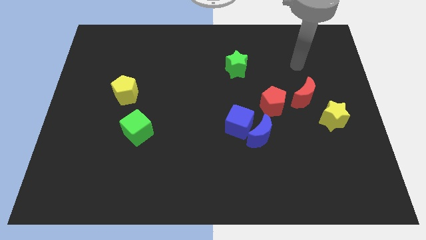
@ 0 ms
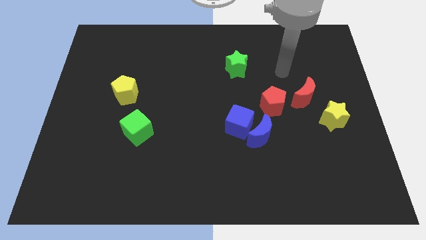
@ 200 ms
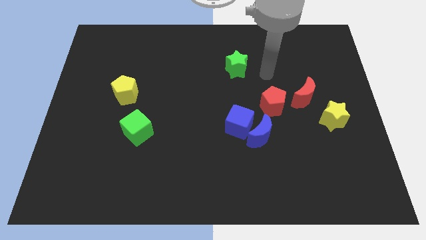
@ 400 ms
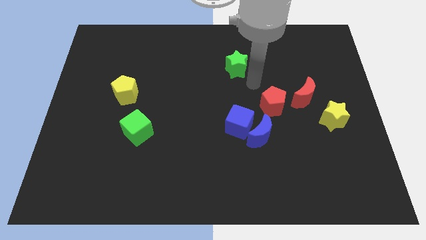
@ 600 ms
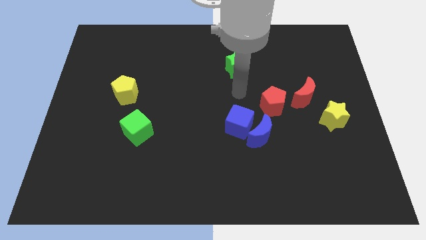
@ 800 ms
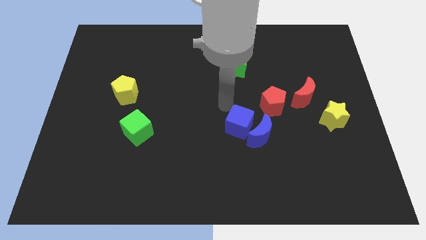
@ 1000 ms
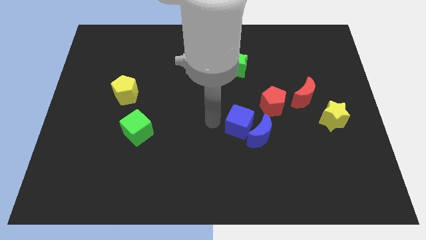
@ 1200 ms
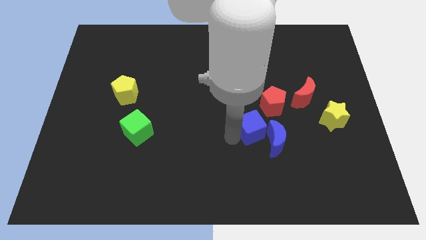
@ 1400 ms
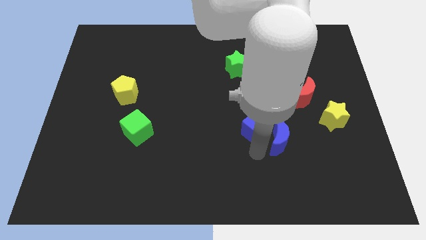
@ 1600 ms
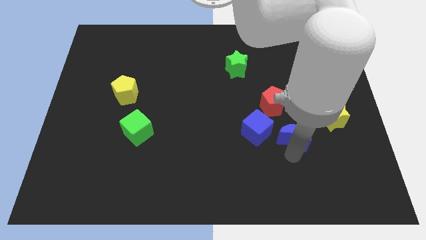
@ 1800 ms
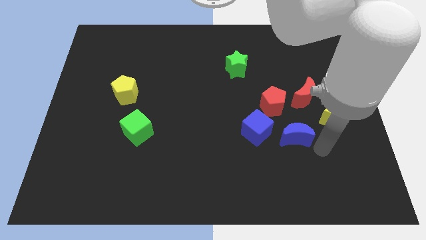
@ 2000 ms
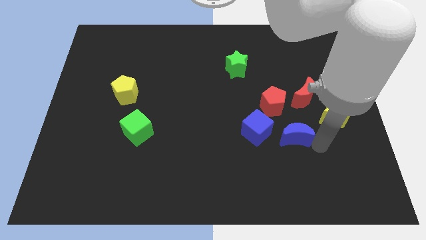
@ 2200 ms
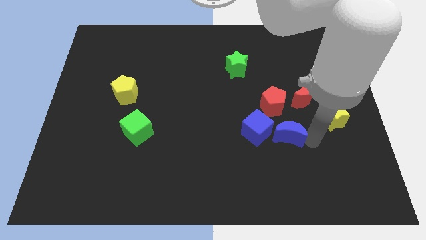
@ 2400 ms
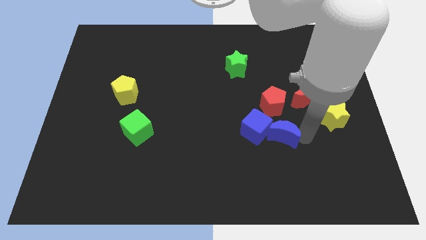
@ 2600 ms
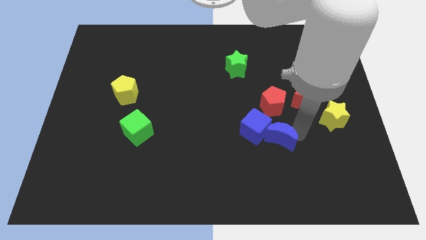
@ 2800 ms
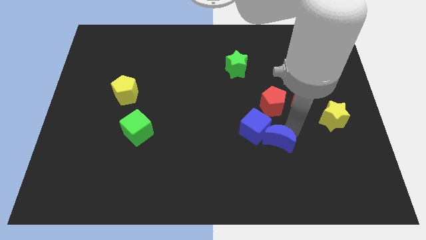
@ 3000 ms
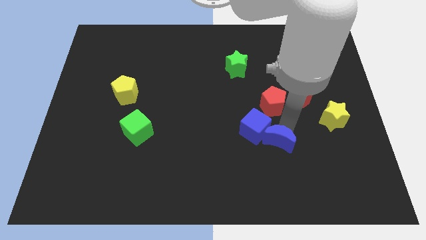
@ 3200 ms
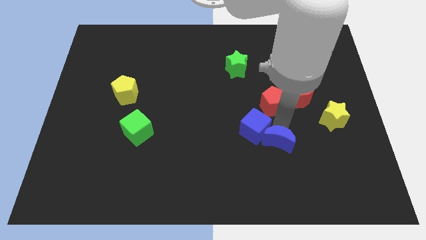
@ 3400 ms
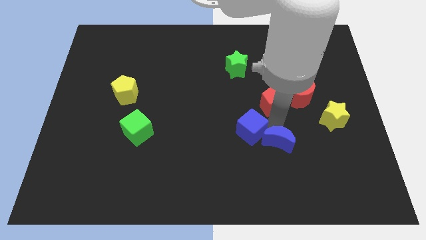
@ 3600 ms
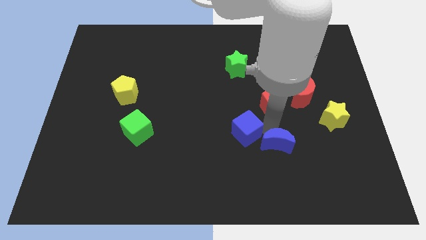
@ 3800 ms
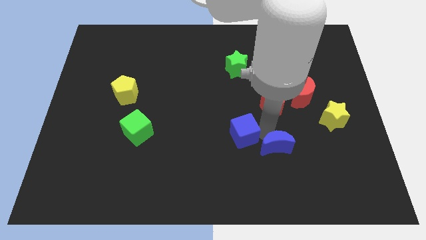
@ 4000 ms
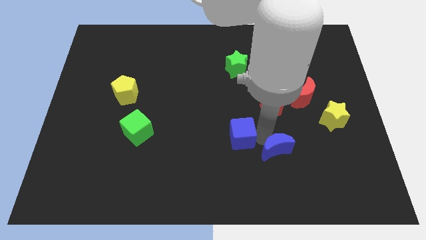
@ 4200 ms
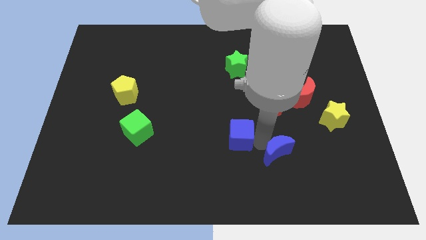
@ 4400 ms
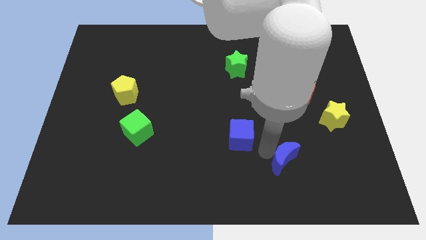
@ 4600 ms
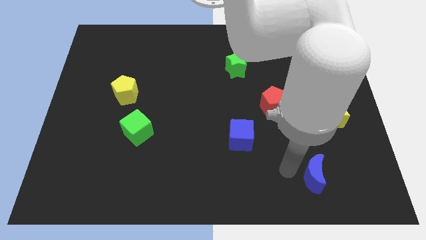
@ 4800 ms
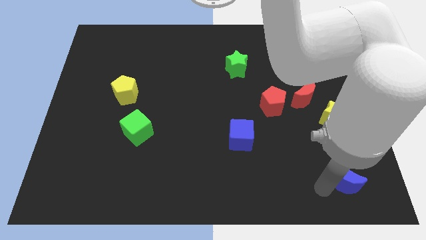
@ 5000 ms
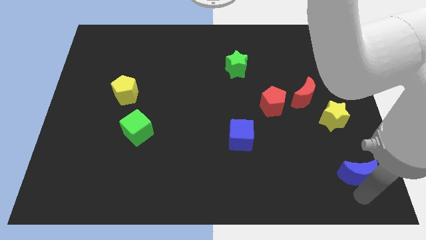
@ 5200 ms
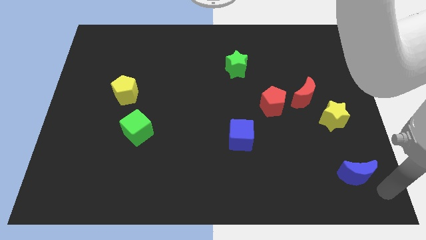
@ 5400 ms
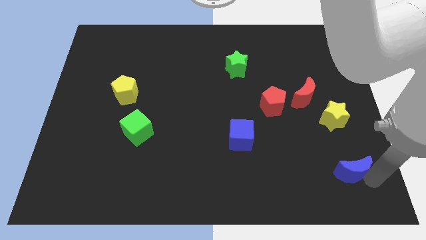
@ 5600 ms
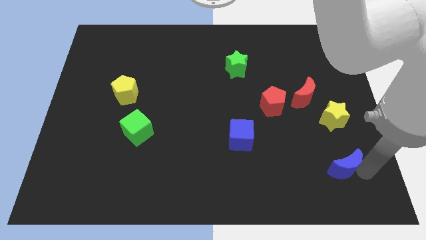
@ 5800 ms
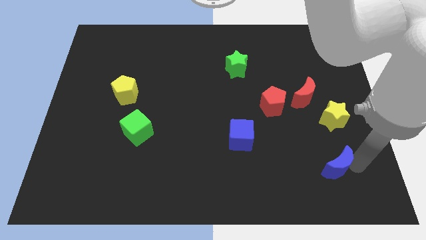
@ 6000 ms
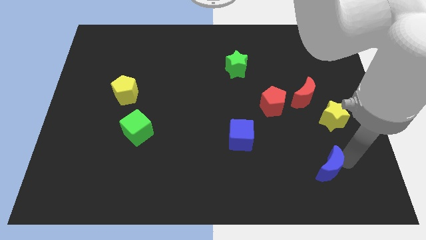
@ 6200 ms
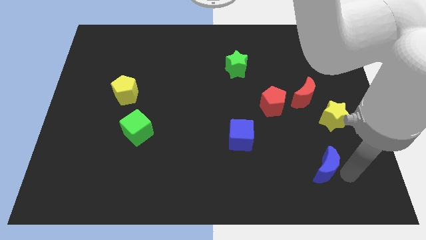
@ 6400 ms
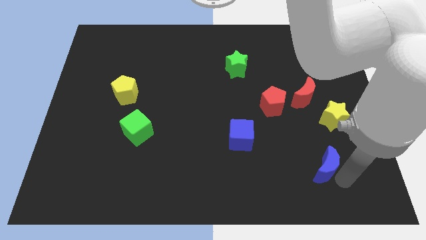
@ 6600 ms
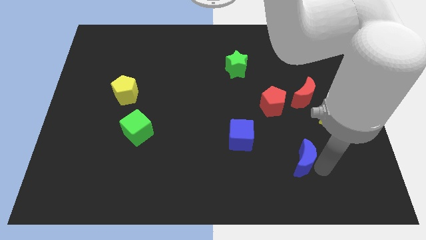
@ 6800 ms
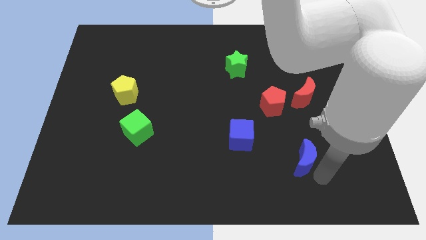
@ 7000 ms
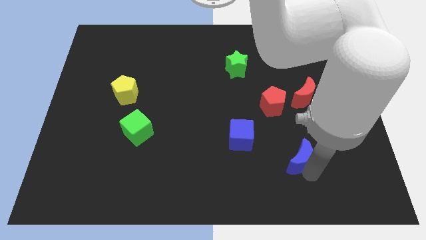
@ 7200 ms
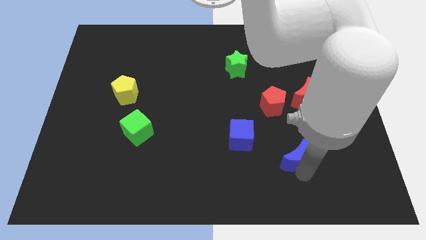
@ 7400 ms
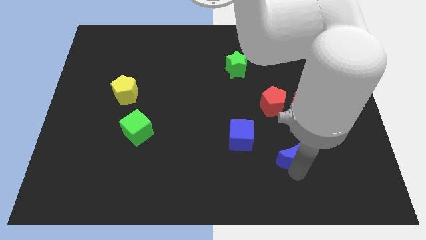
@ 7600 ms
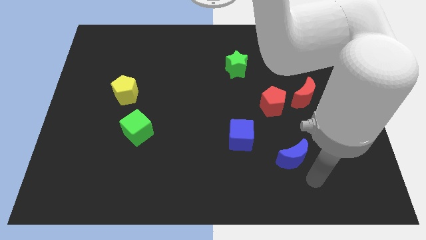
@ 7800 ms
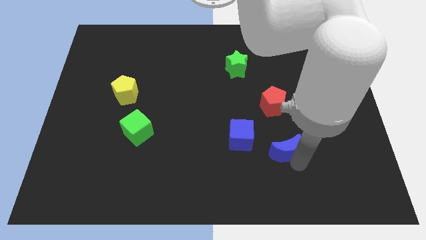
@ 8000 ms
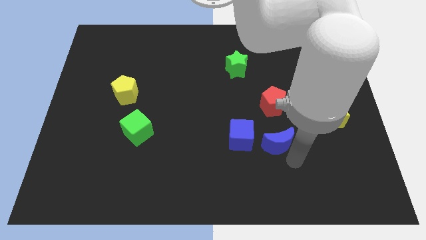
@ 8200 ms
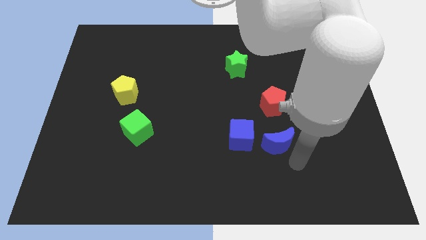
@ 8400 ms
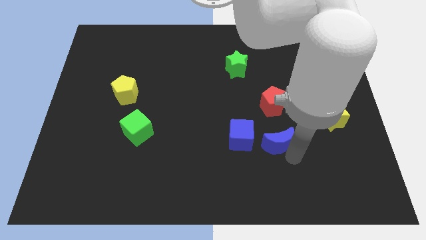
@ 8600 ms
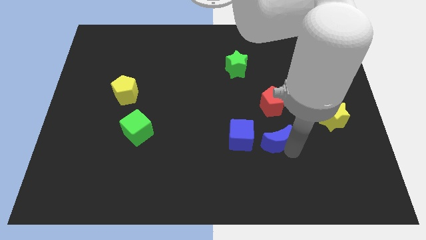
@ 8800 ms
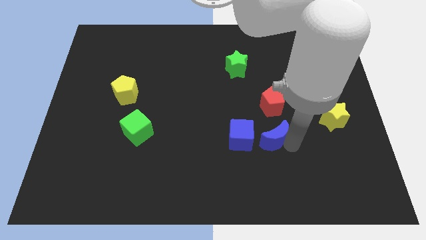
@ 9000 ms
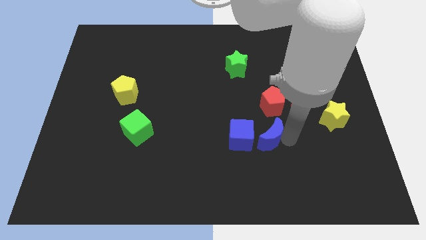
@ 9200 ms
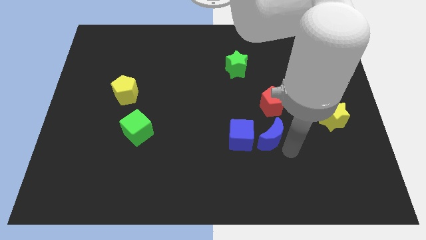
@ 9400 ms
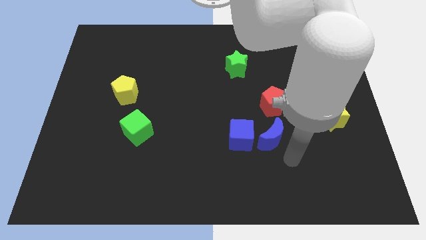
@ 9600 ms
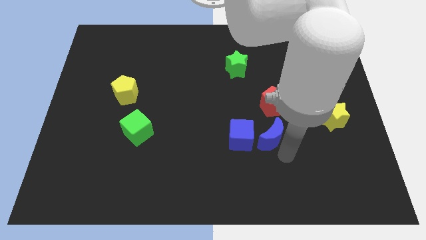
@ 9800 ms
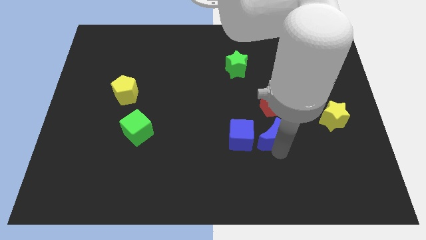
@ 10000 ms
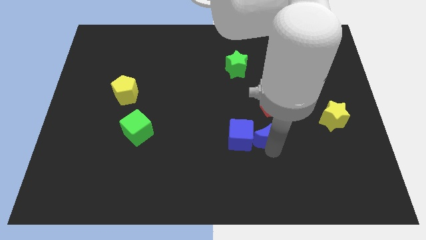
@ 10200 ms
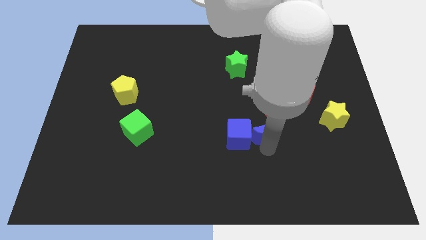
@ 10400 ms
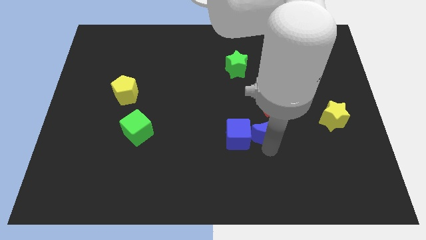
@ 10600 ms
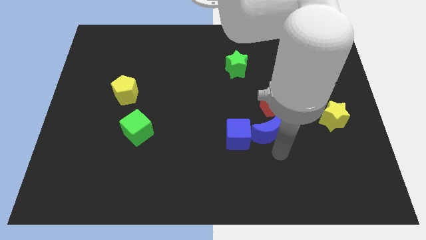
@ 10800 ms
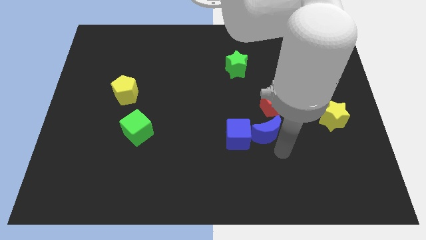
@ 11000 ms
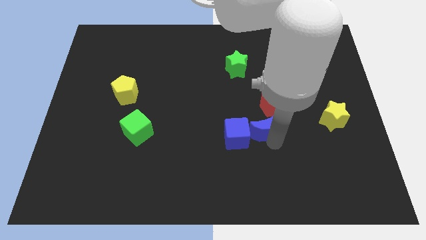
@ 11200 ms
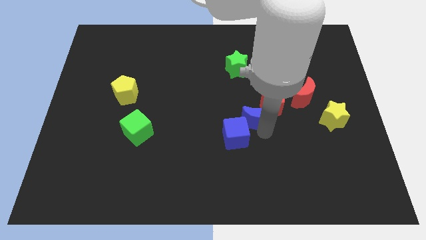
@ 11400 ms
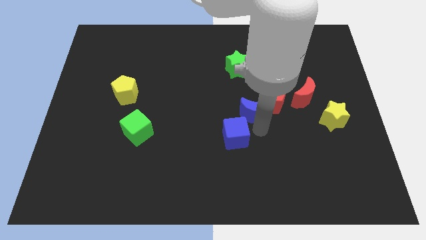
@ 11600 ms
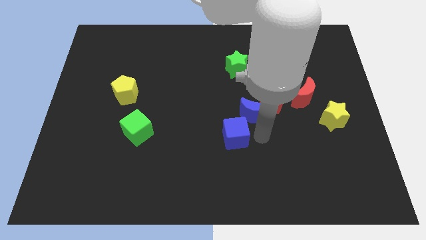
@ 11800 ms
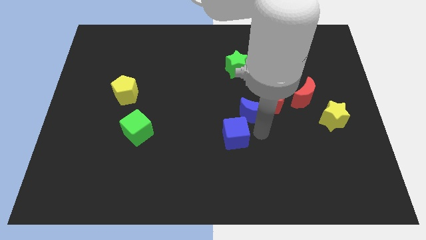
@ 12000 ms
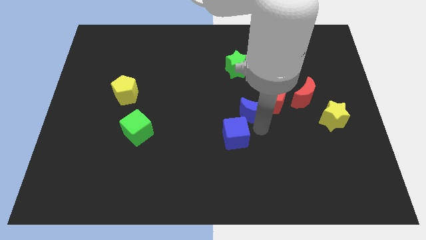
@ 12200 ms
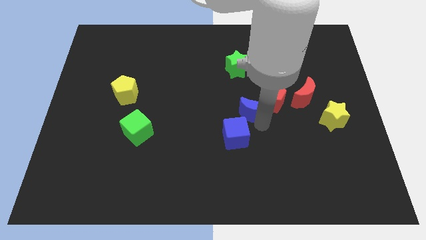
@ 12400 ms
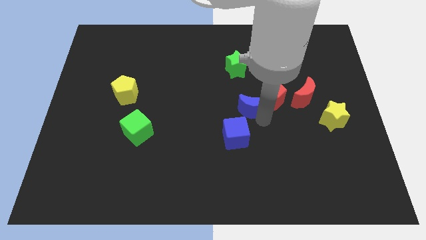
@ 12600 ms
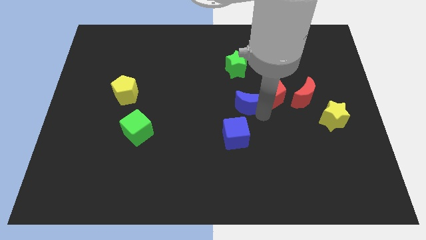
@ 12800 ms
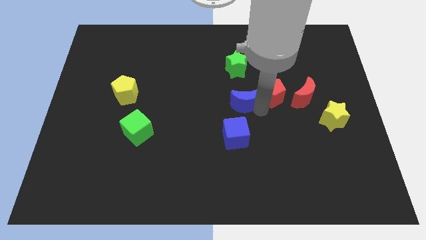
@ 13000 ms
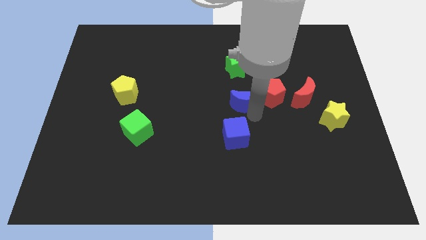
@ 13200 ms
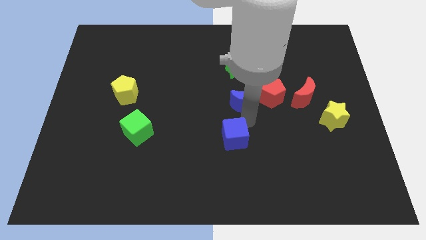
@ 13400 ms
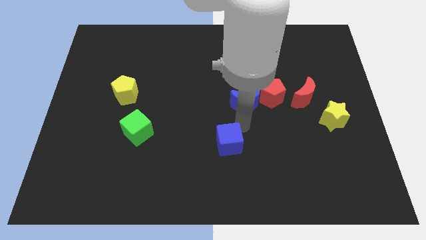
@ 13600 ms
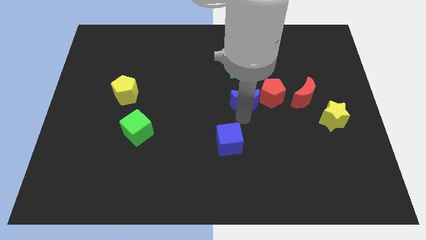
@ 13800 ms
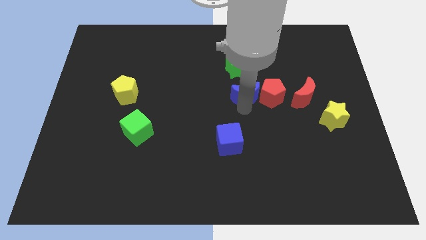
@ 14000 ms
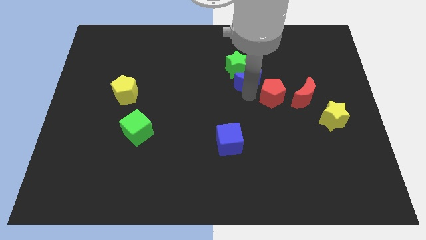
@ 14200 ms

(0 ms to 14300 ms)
push the blue moon next to the green star
